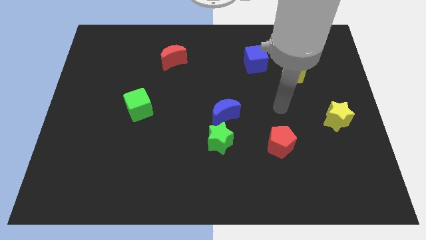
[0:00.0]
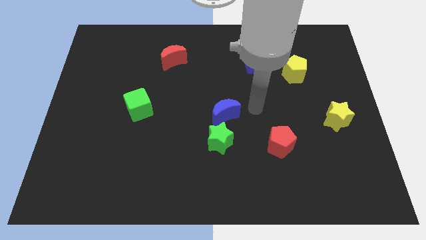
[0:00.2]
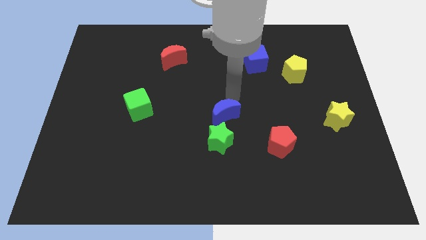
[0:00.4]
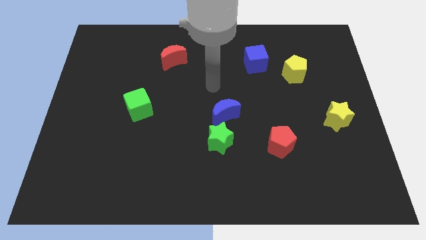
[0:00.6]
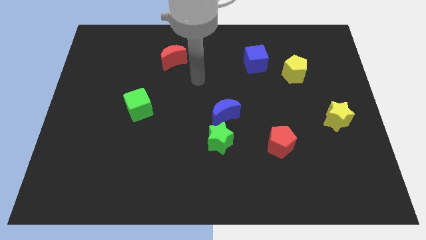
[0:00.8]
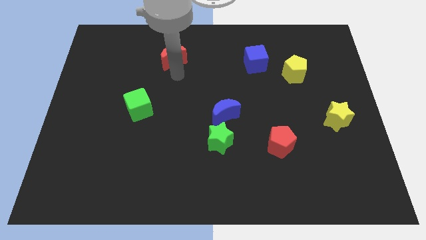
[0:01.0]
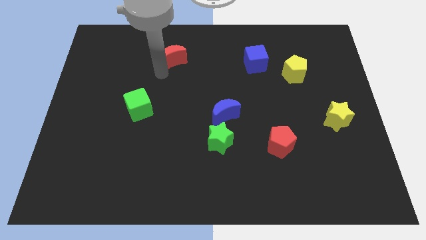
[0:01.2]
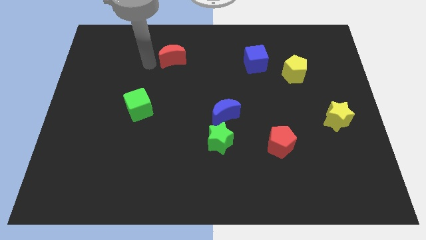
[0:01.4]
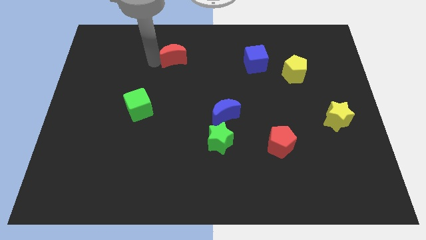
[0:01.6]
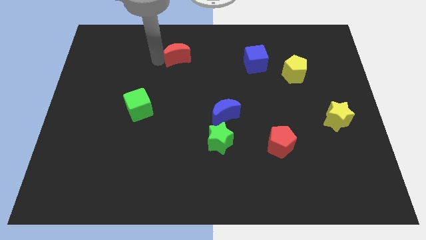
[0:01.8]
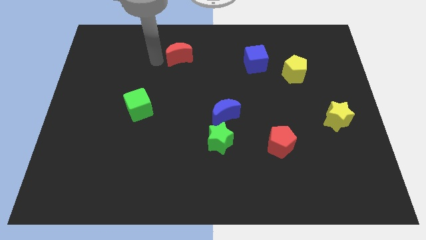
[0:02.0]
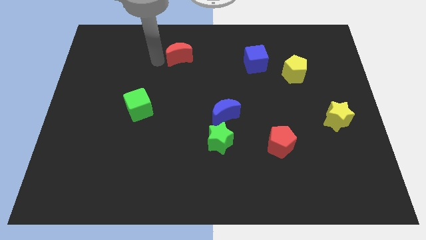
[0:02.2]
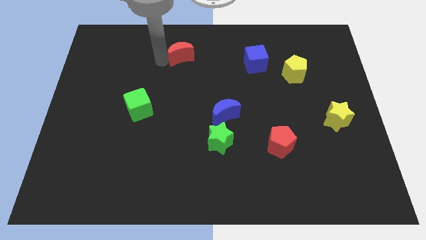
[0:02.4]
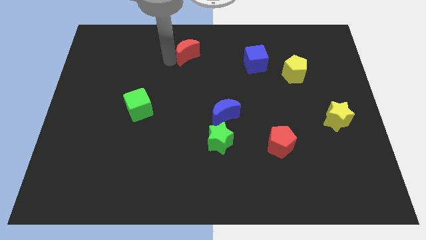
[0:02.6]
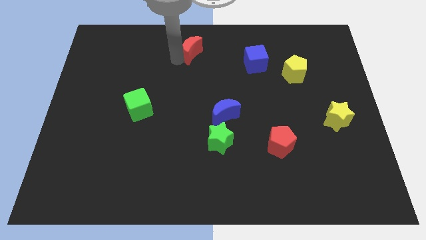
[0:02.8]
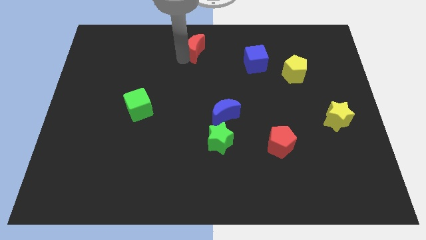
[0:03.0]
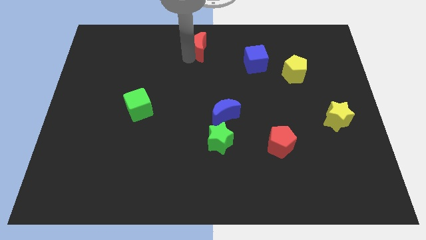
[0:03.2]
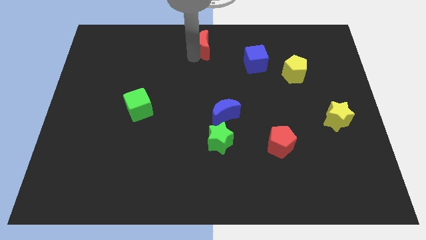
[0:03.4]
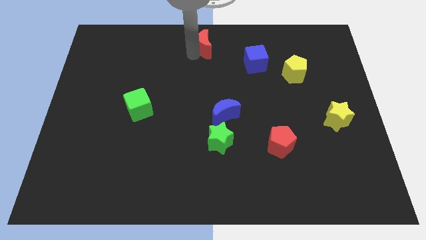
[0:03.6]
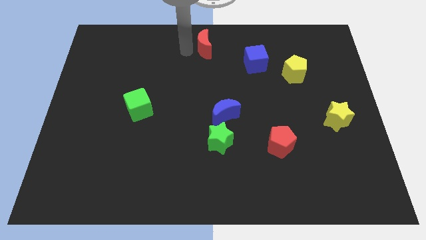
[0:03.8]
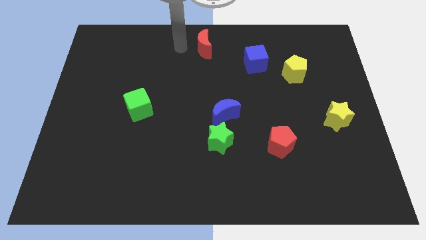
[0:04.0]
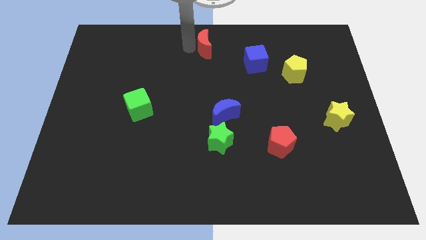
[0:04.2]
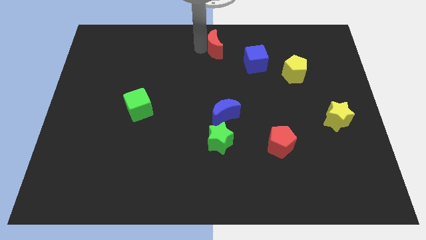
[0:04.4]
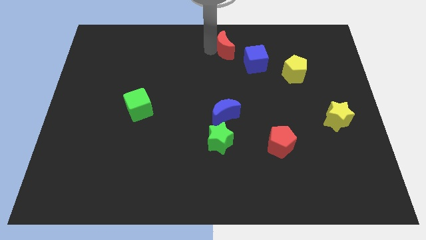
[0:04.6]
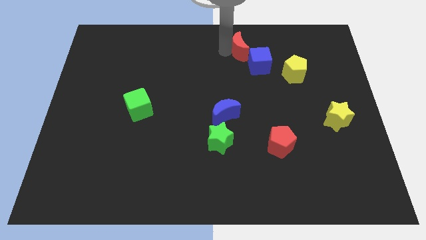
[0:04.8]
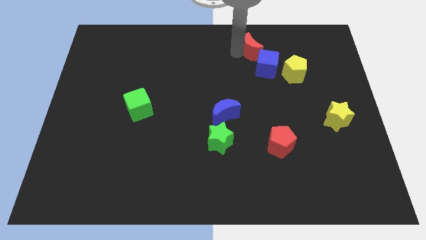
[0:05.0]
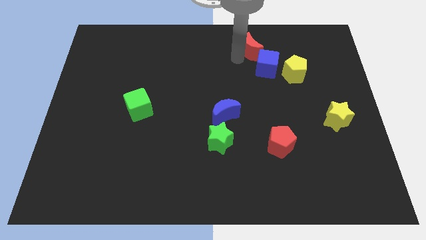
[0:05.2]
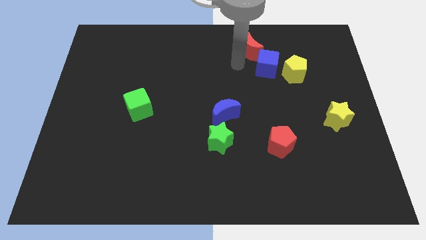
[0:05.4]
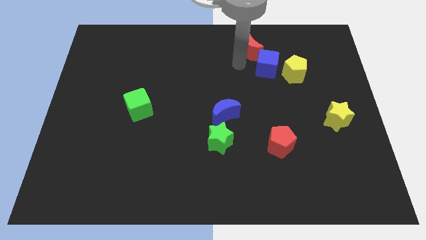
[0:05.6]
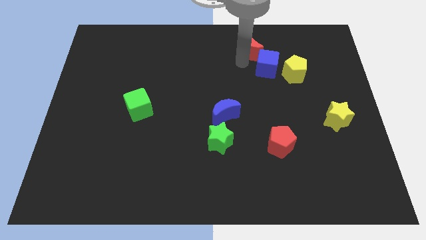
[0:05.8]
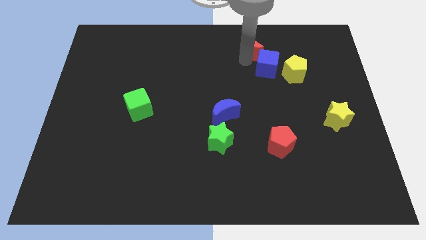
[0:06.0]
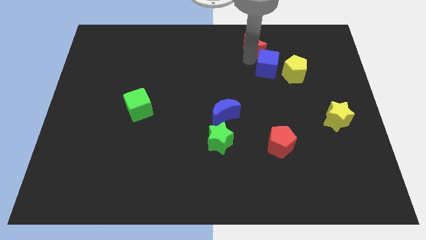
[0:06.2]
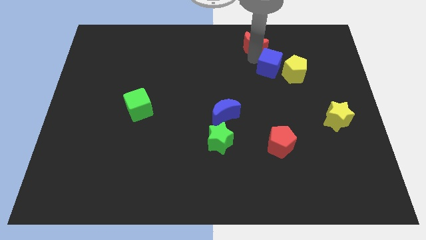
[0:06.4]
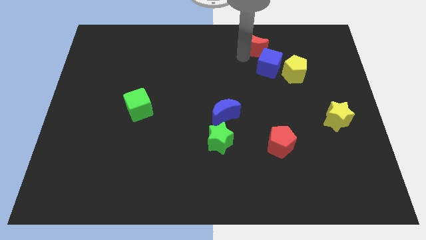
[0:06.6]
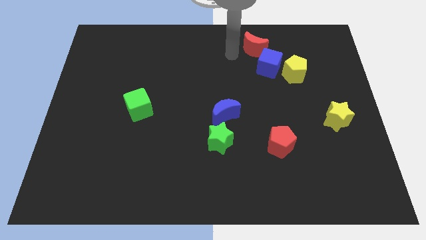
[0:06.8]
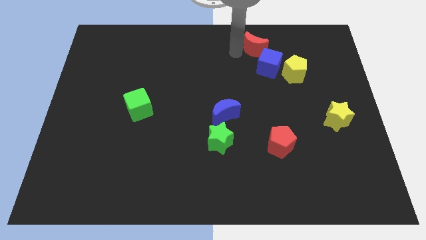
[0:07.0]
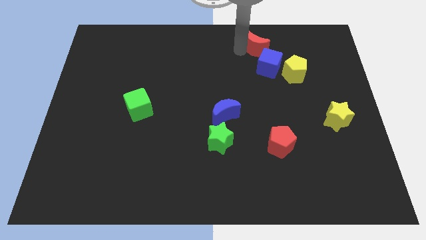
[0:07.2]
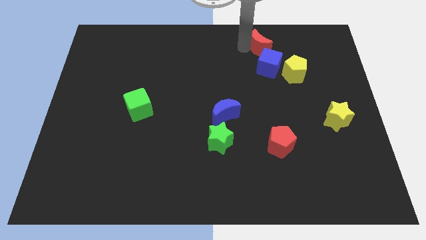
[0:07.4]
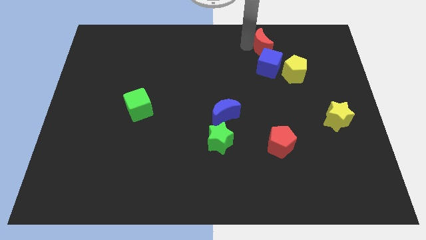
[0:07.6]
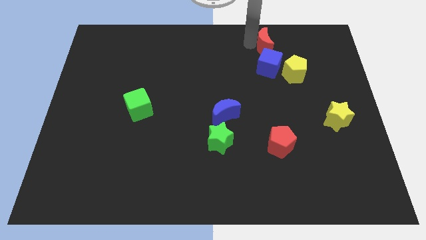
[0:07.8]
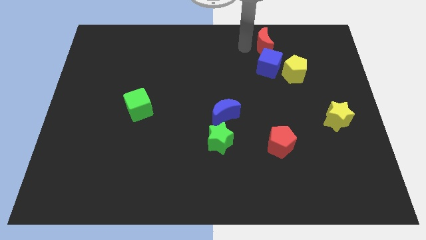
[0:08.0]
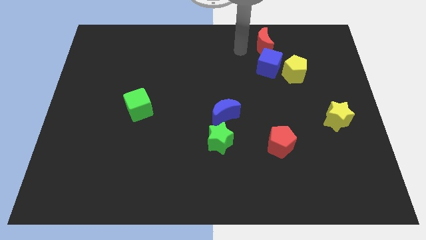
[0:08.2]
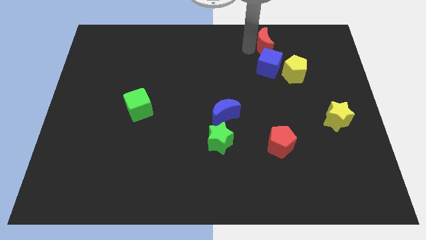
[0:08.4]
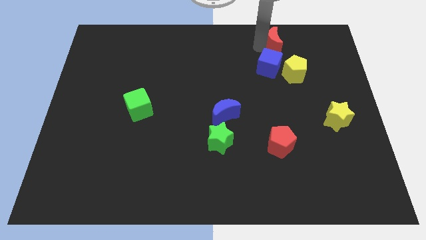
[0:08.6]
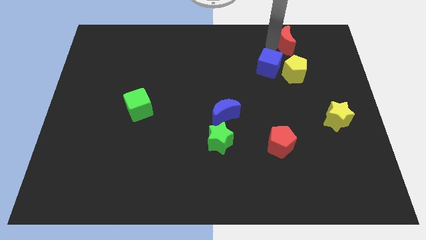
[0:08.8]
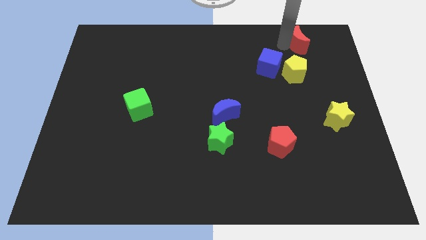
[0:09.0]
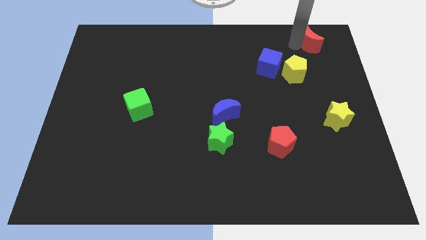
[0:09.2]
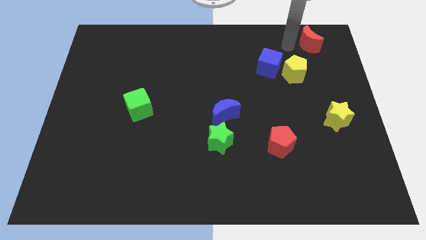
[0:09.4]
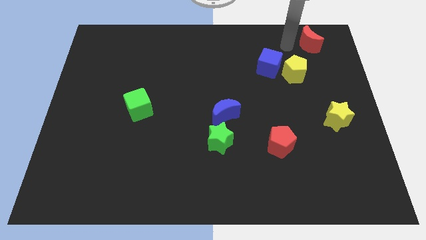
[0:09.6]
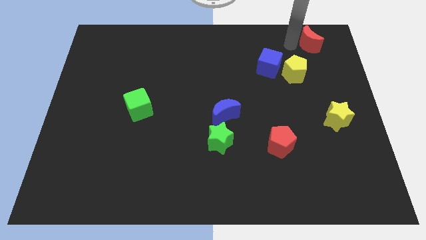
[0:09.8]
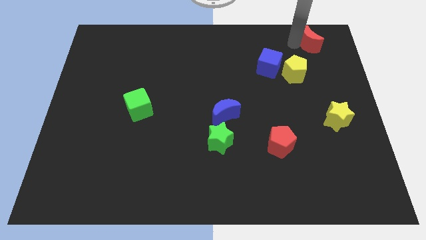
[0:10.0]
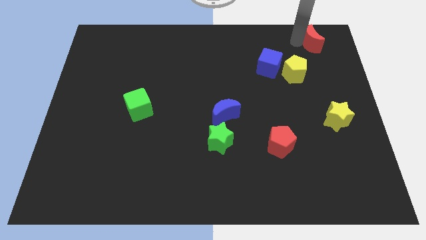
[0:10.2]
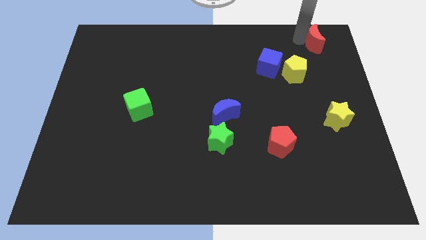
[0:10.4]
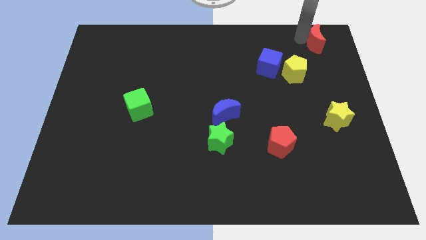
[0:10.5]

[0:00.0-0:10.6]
put the red moon to the top right of the board

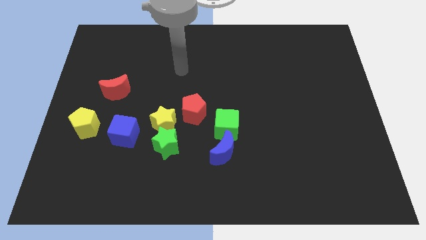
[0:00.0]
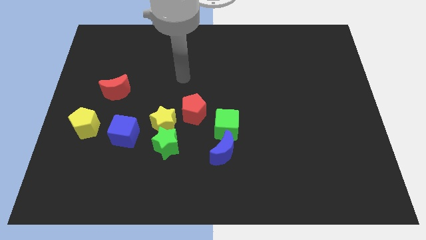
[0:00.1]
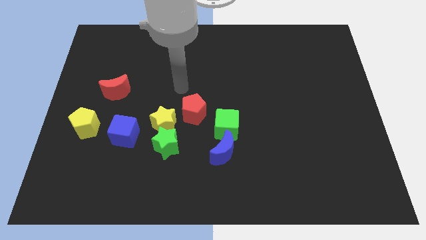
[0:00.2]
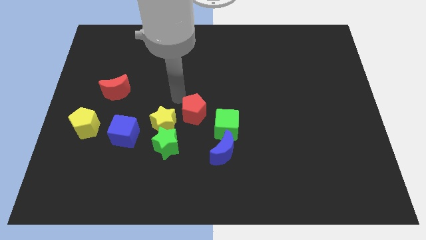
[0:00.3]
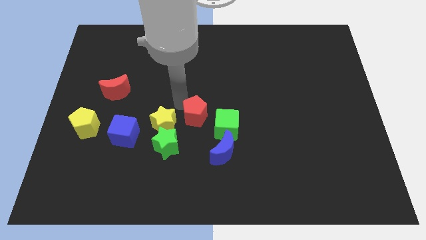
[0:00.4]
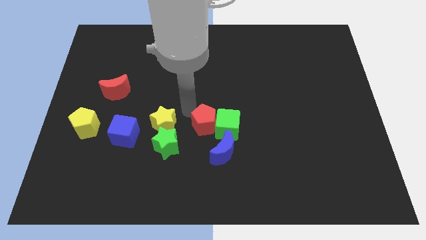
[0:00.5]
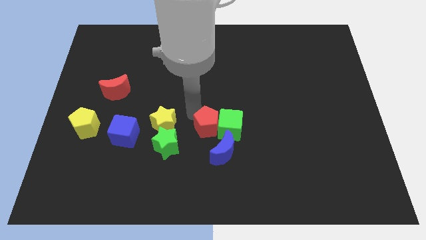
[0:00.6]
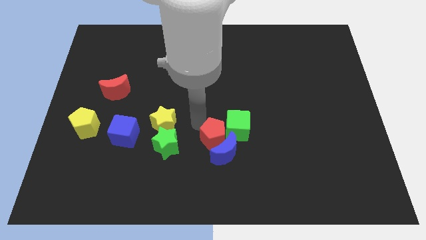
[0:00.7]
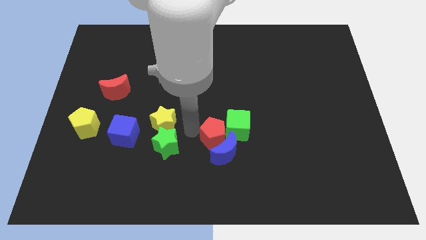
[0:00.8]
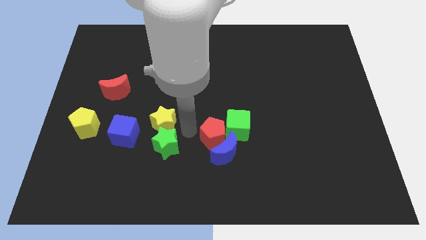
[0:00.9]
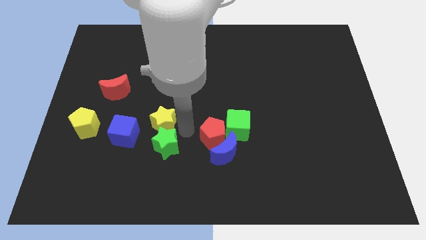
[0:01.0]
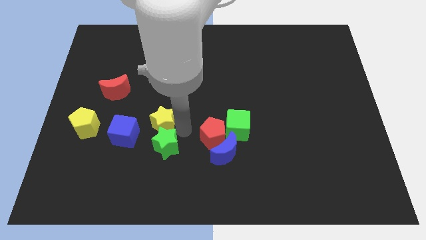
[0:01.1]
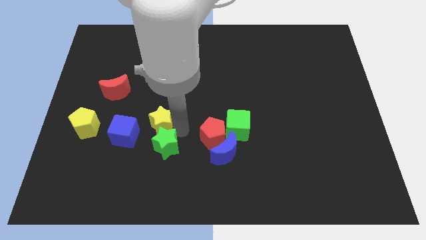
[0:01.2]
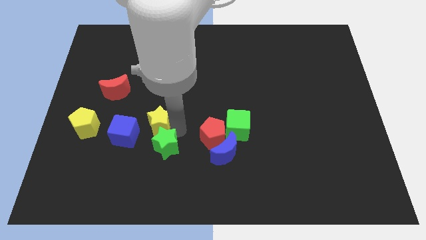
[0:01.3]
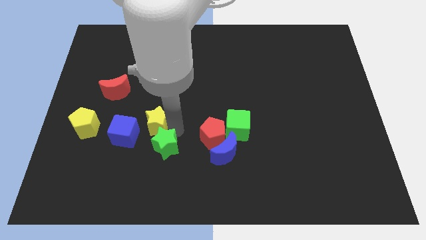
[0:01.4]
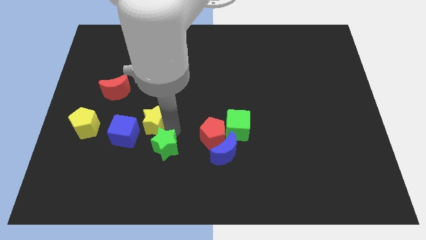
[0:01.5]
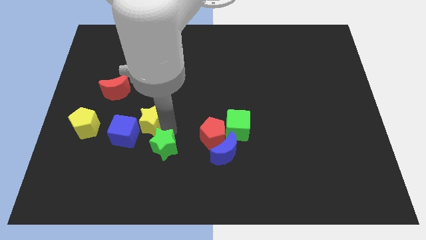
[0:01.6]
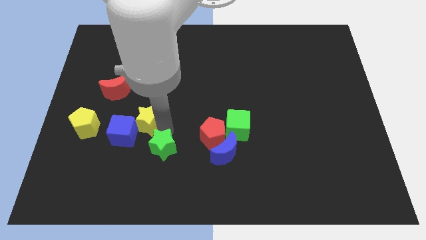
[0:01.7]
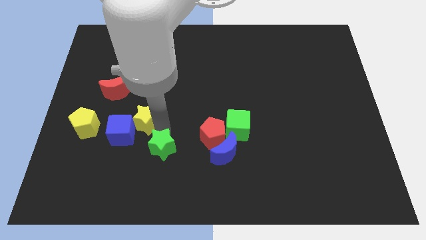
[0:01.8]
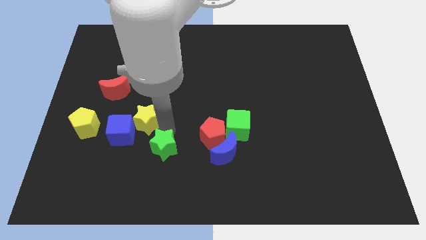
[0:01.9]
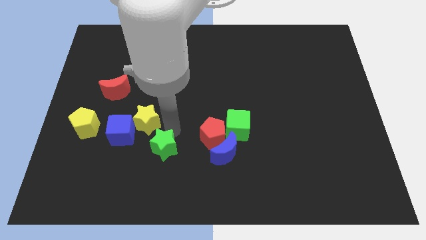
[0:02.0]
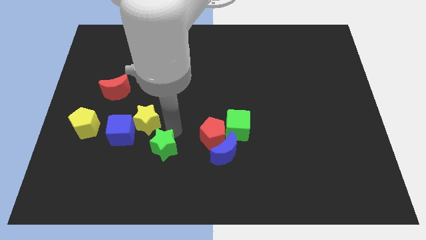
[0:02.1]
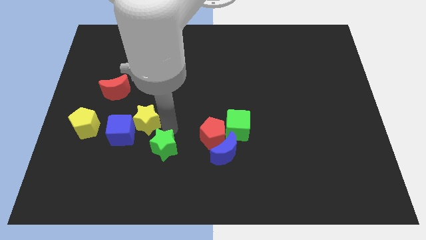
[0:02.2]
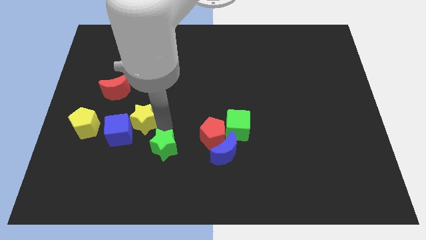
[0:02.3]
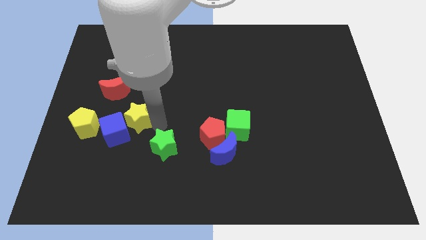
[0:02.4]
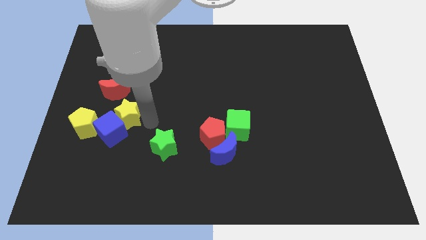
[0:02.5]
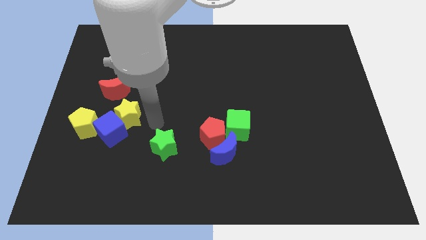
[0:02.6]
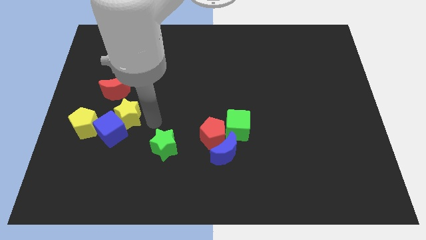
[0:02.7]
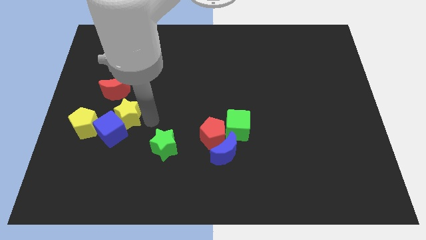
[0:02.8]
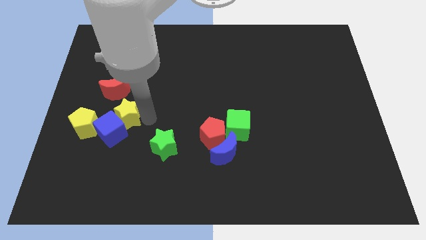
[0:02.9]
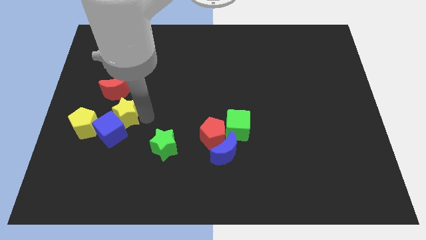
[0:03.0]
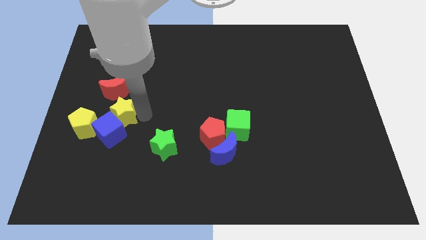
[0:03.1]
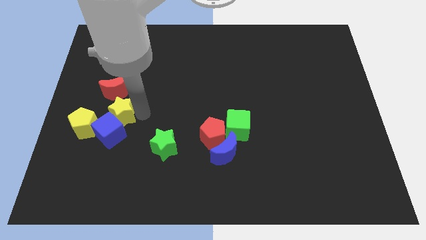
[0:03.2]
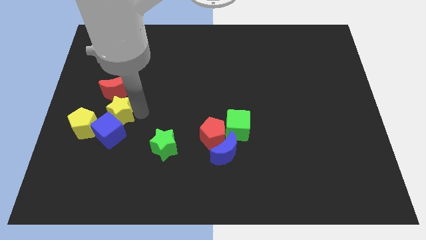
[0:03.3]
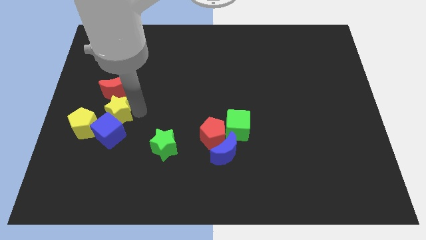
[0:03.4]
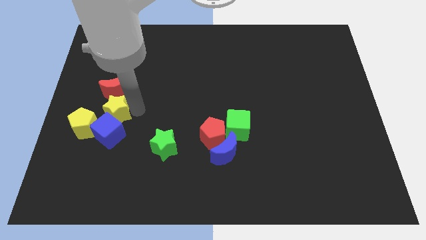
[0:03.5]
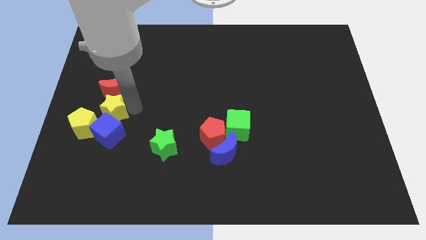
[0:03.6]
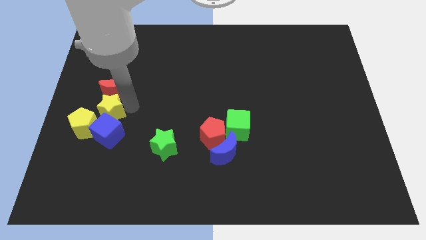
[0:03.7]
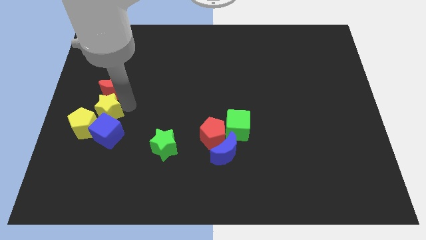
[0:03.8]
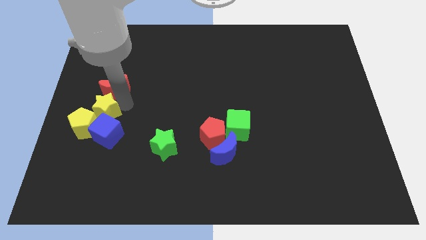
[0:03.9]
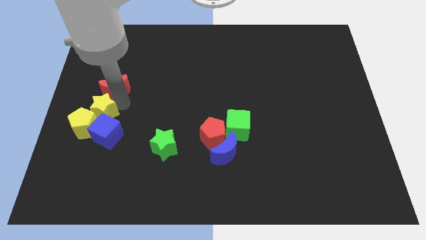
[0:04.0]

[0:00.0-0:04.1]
move the yellow star to the left side
